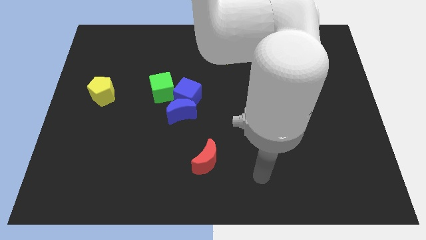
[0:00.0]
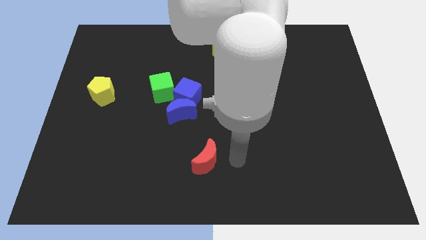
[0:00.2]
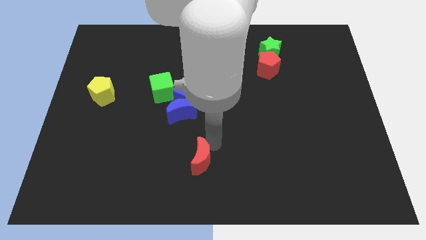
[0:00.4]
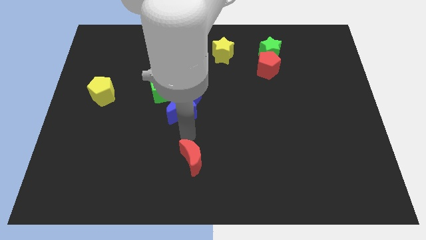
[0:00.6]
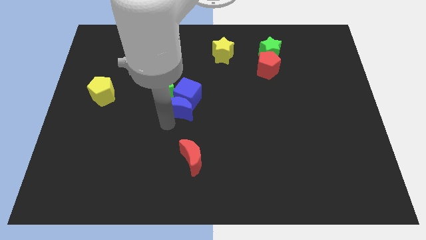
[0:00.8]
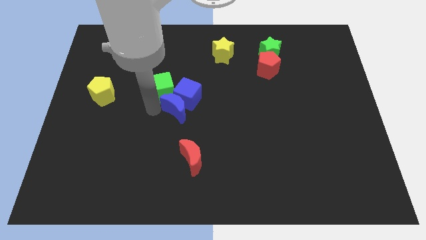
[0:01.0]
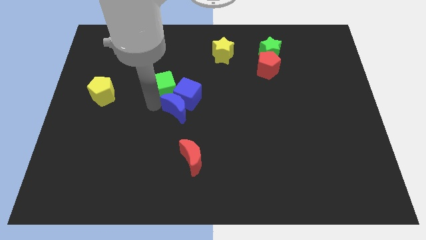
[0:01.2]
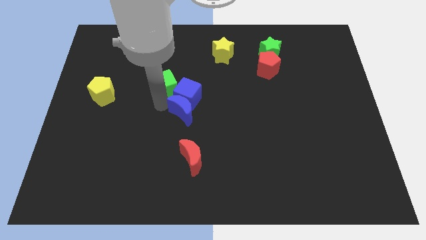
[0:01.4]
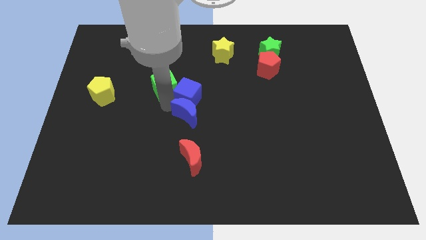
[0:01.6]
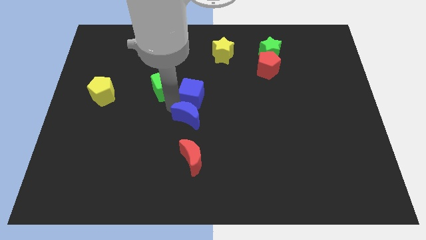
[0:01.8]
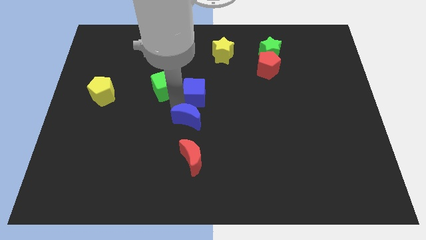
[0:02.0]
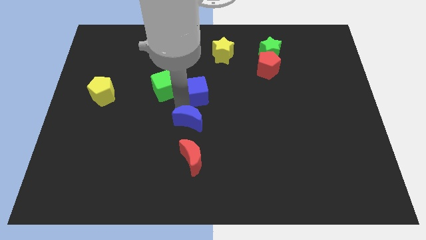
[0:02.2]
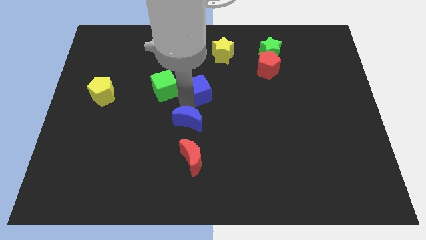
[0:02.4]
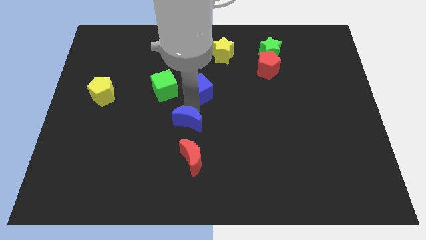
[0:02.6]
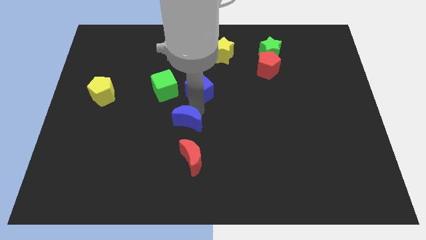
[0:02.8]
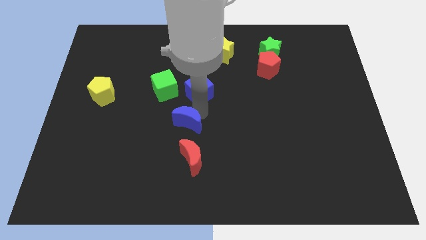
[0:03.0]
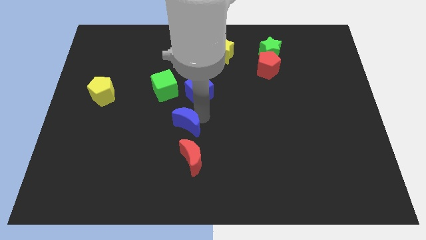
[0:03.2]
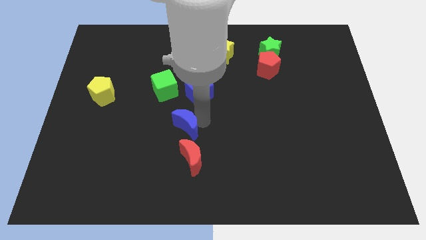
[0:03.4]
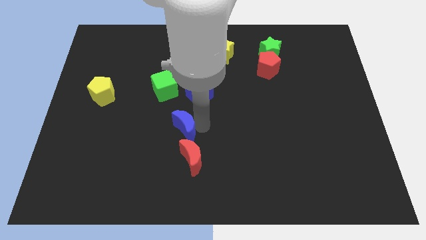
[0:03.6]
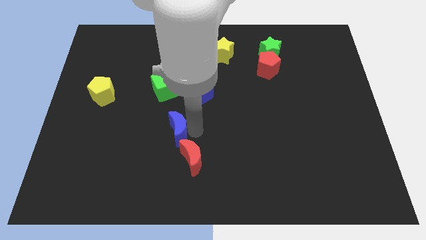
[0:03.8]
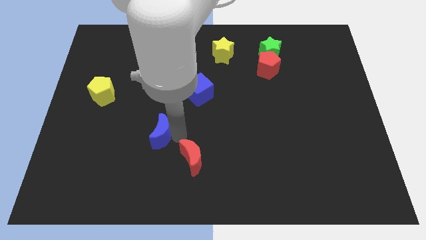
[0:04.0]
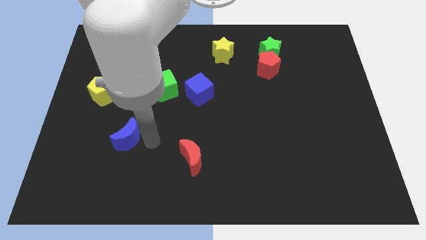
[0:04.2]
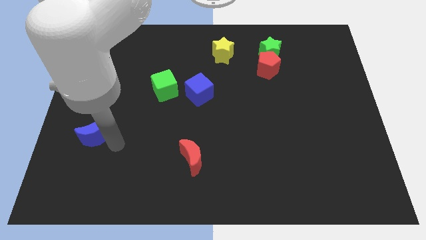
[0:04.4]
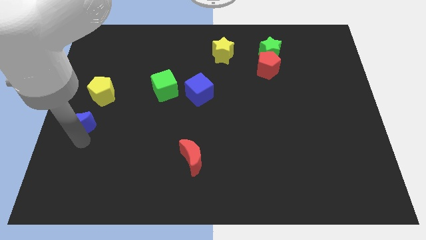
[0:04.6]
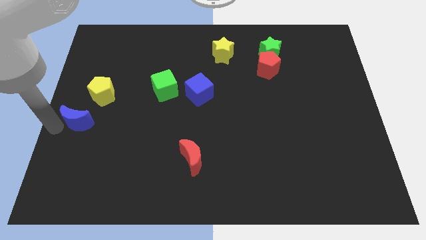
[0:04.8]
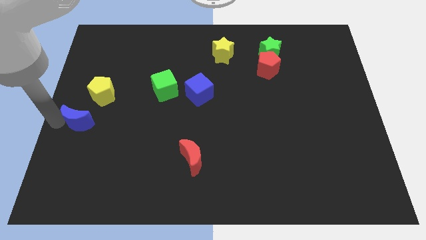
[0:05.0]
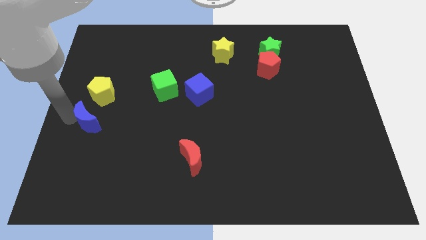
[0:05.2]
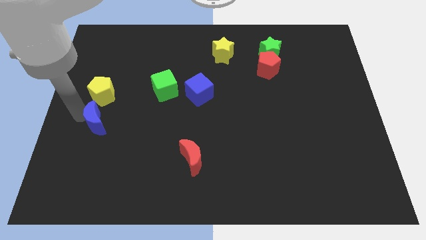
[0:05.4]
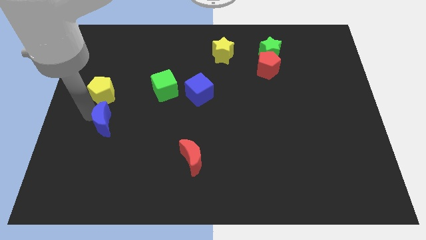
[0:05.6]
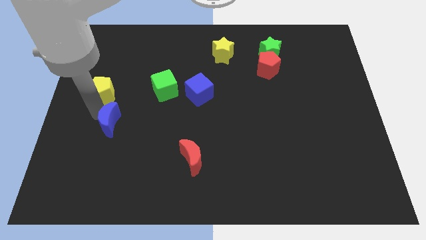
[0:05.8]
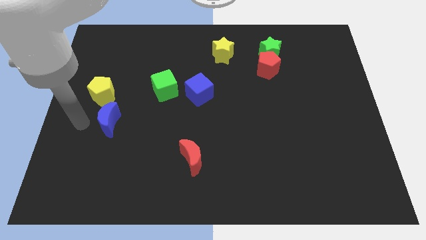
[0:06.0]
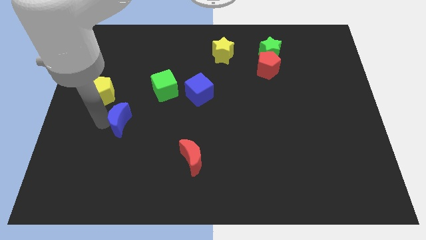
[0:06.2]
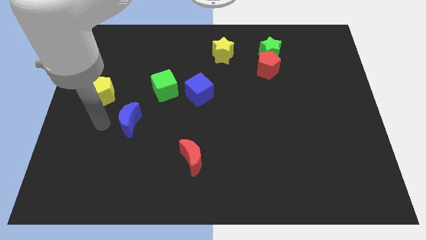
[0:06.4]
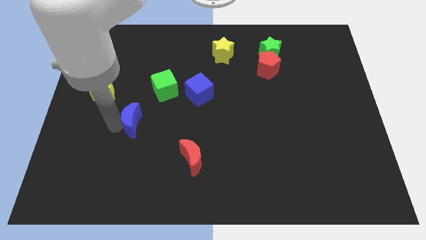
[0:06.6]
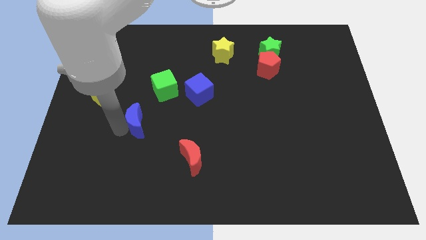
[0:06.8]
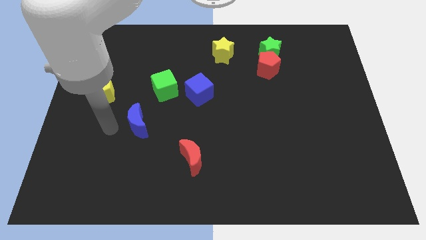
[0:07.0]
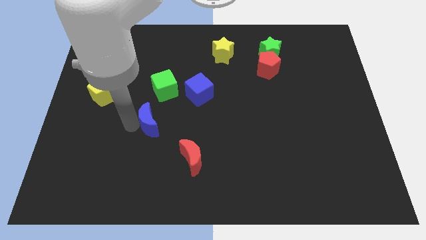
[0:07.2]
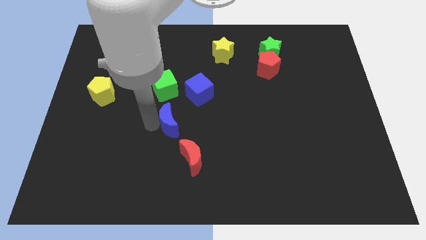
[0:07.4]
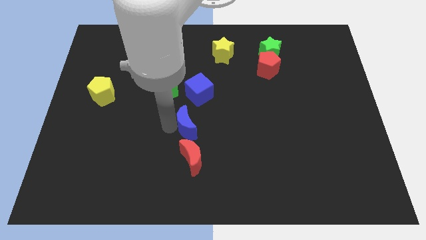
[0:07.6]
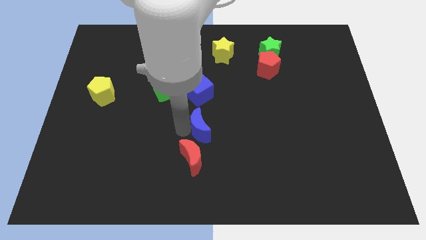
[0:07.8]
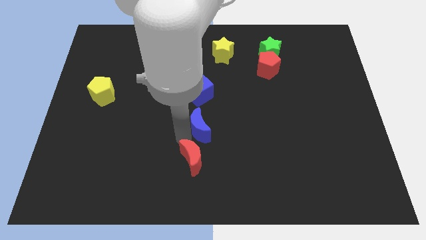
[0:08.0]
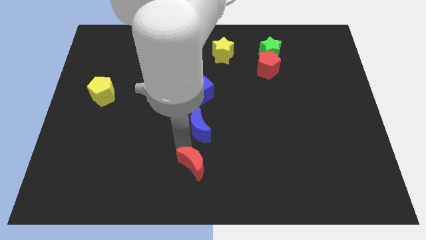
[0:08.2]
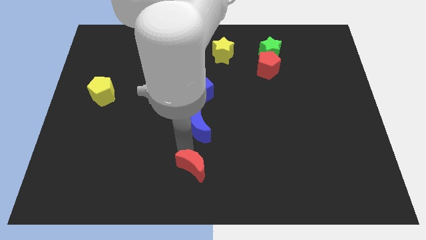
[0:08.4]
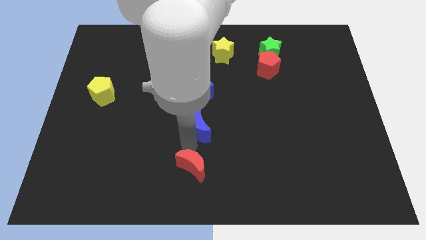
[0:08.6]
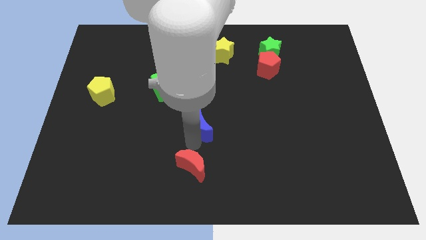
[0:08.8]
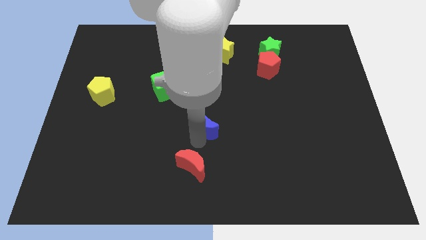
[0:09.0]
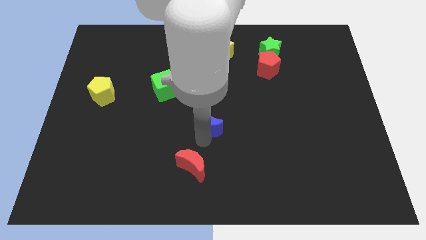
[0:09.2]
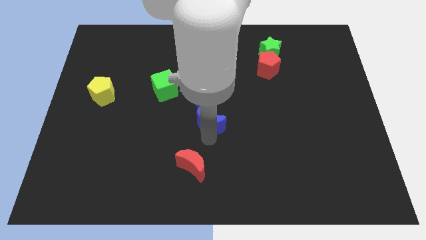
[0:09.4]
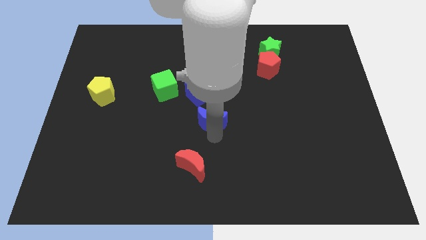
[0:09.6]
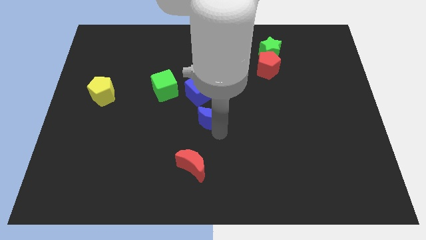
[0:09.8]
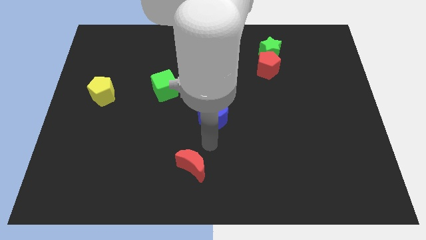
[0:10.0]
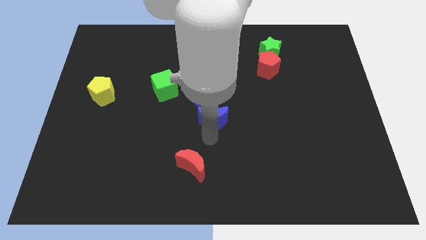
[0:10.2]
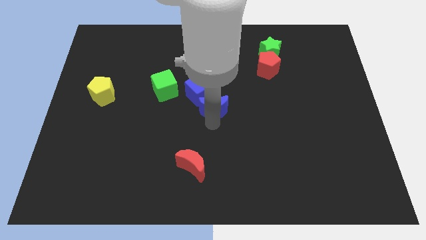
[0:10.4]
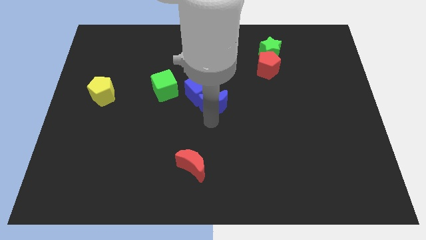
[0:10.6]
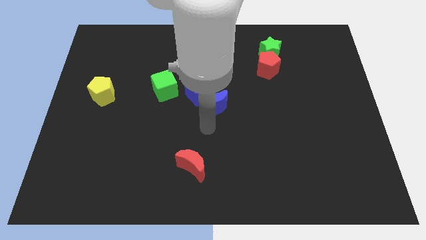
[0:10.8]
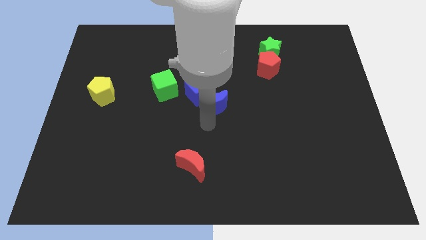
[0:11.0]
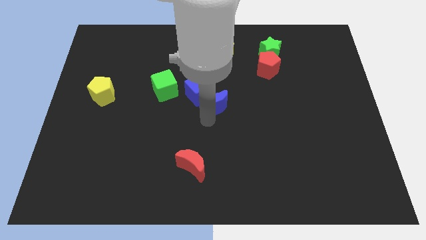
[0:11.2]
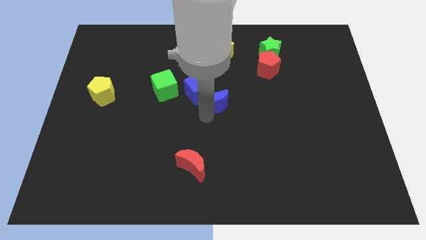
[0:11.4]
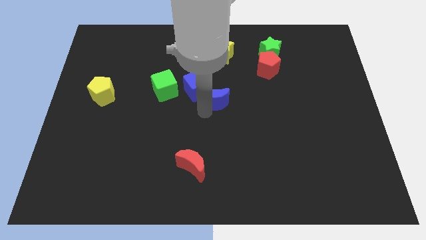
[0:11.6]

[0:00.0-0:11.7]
put the blue moon to the bottom side of the yellow star
